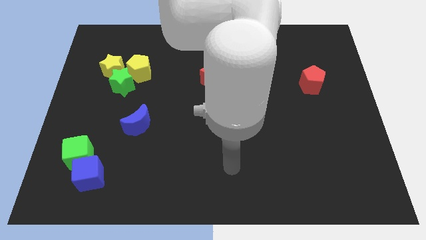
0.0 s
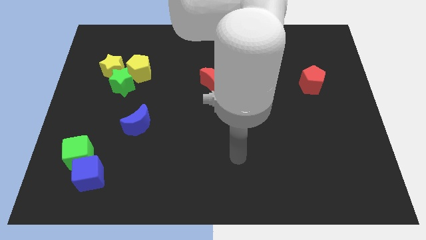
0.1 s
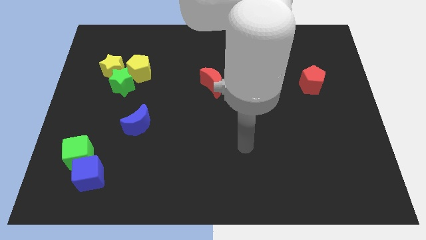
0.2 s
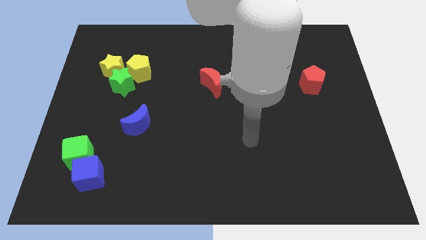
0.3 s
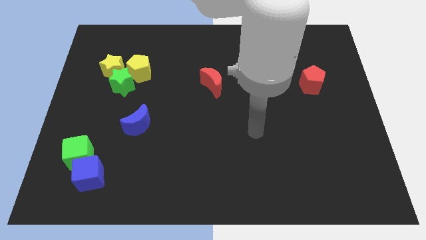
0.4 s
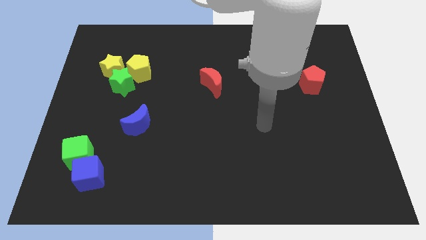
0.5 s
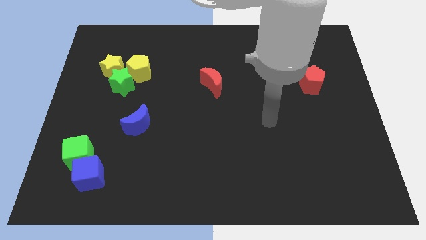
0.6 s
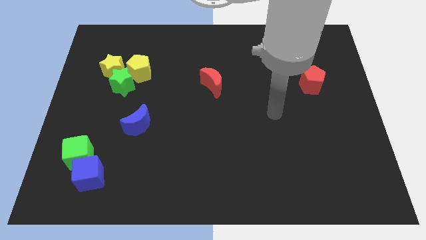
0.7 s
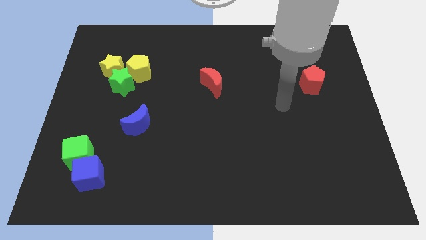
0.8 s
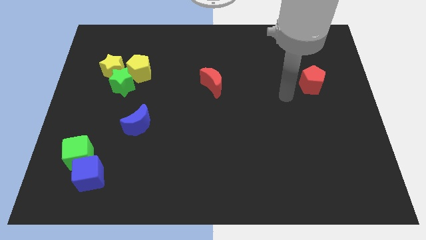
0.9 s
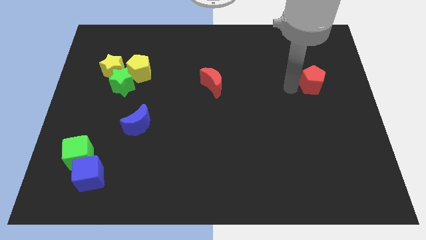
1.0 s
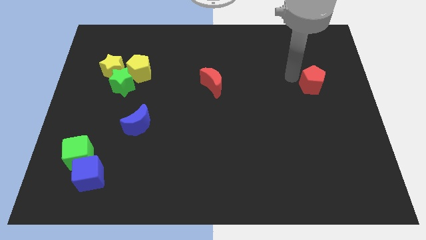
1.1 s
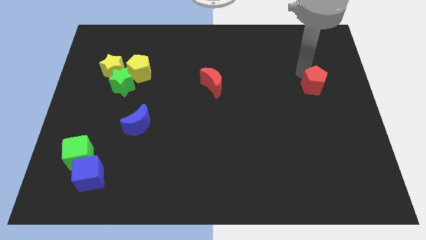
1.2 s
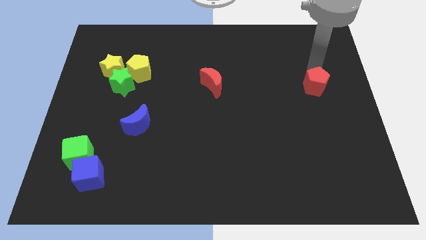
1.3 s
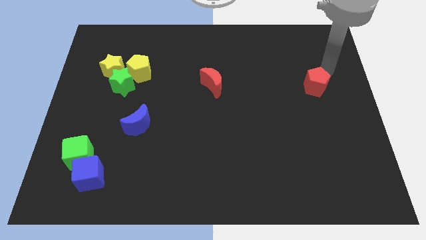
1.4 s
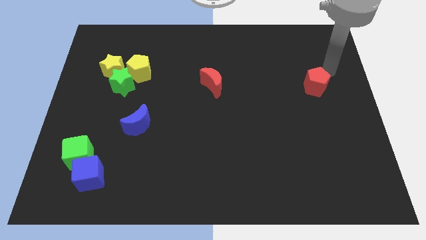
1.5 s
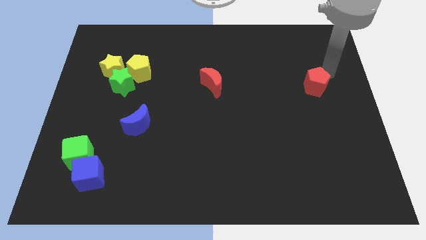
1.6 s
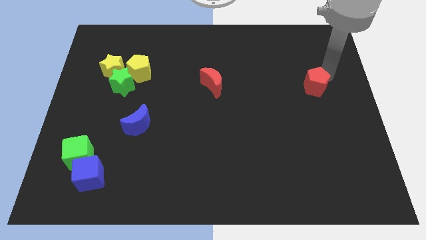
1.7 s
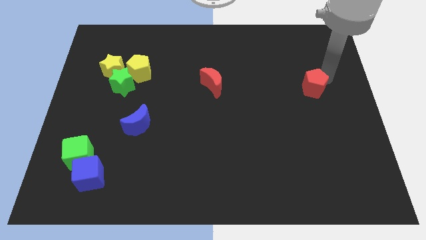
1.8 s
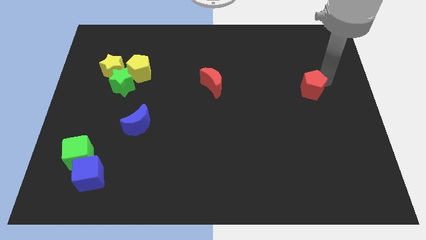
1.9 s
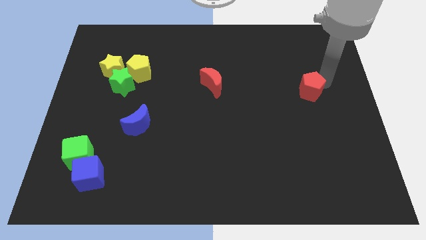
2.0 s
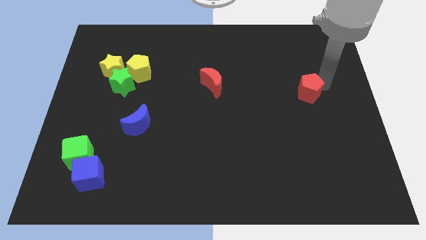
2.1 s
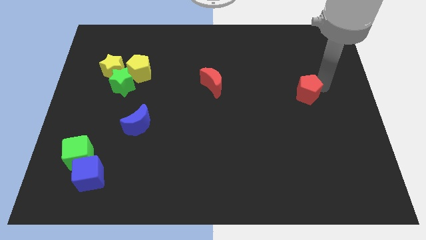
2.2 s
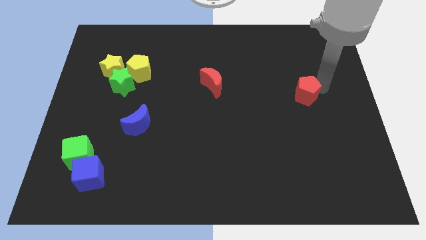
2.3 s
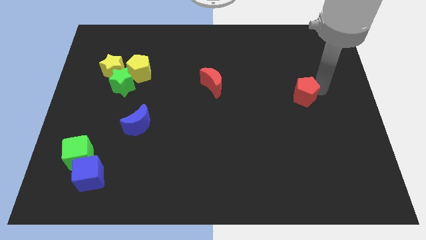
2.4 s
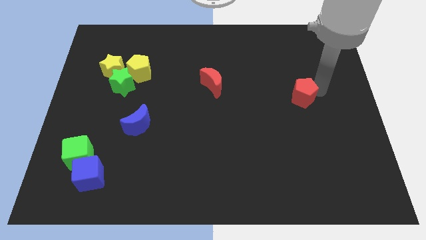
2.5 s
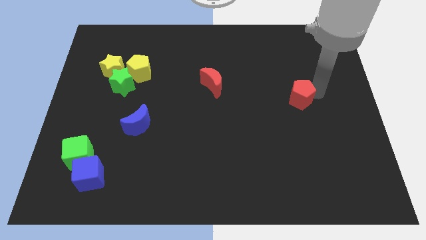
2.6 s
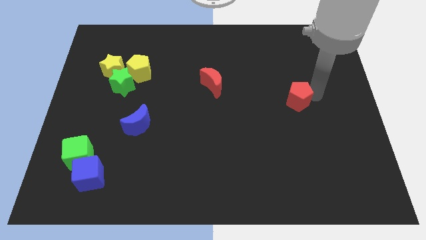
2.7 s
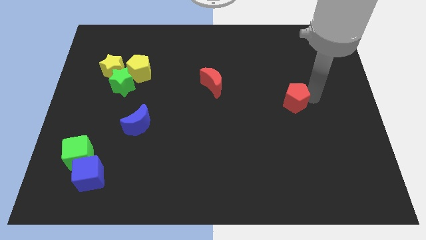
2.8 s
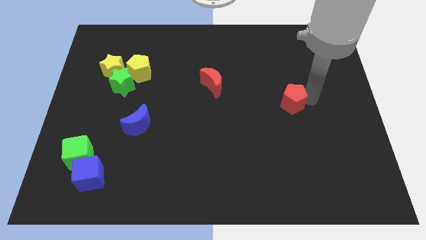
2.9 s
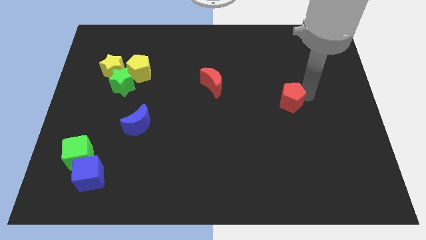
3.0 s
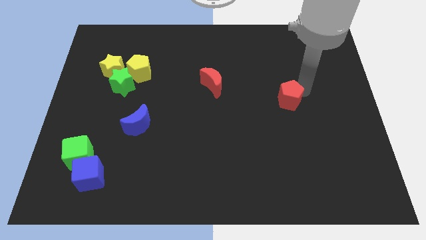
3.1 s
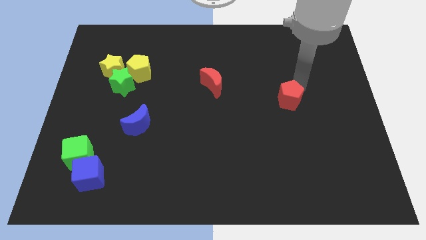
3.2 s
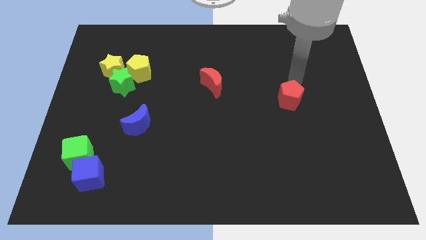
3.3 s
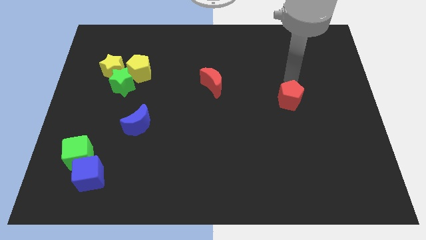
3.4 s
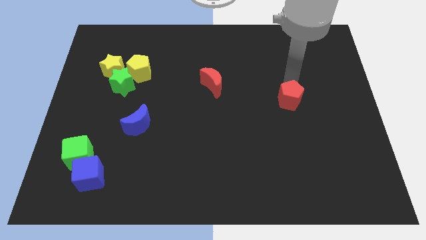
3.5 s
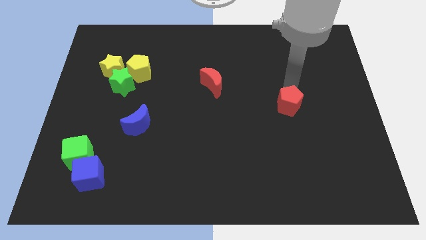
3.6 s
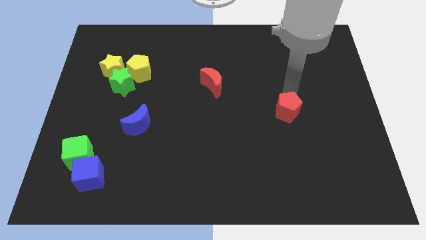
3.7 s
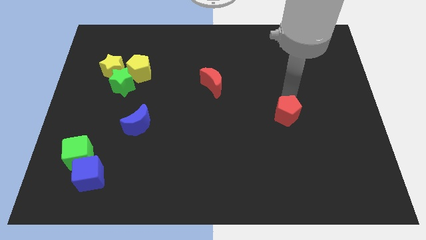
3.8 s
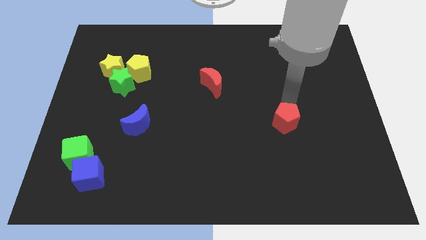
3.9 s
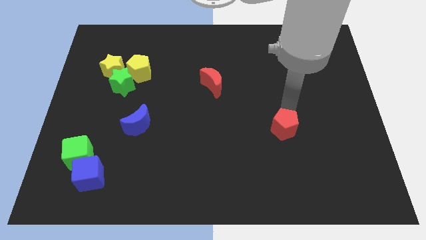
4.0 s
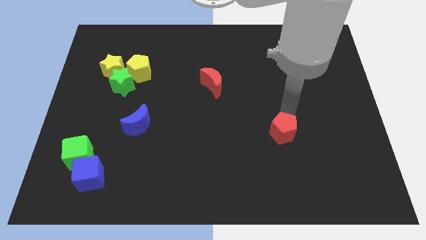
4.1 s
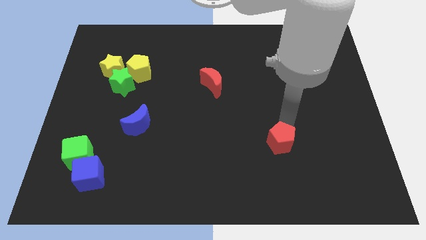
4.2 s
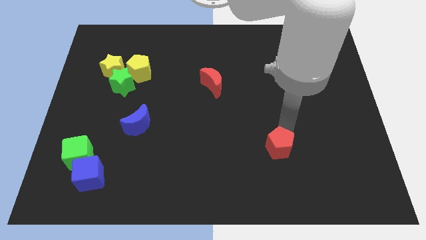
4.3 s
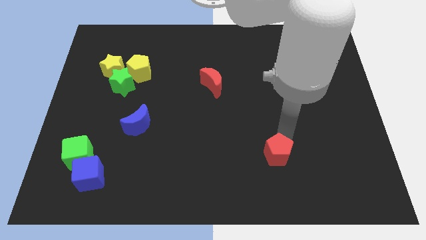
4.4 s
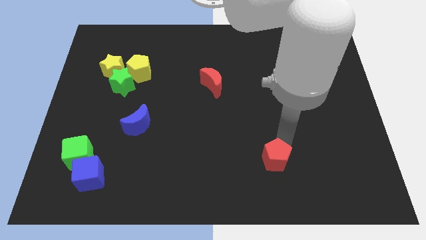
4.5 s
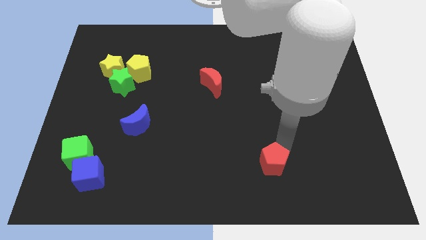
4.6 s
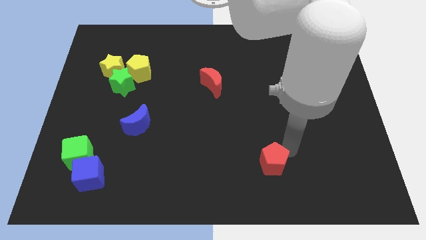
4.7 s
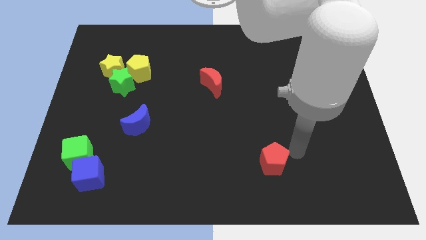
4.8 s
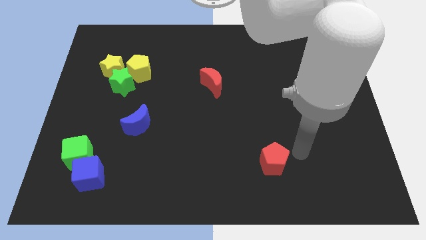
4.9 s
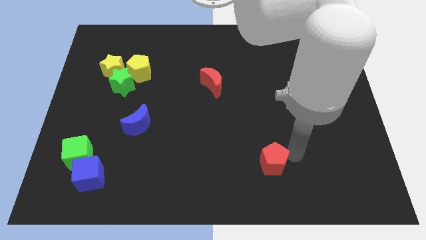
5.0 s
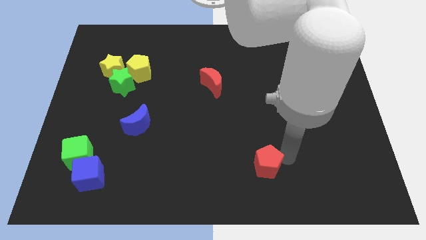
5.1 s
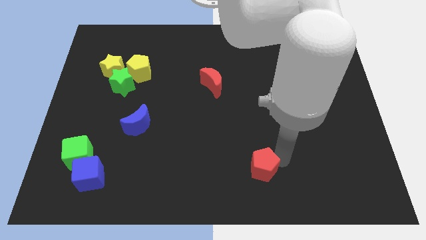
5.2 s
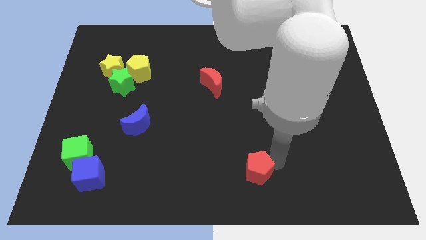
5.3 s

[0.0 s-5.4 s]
move the red pentagon to the bottom side

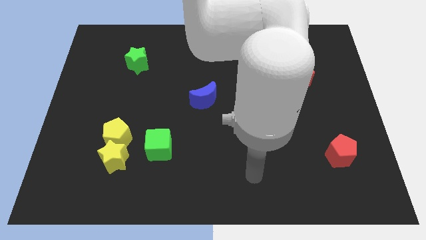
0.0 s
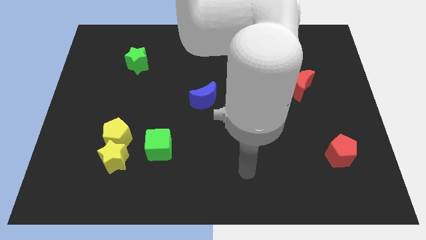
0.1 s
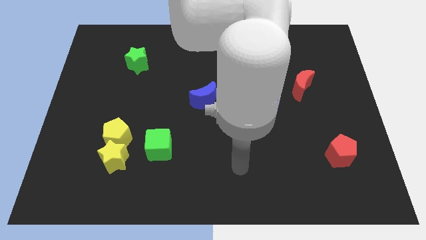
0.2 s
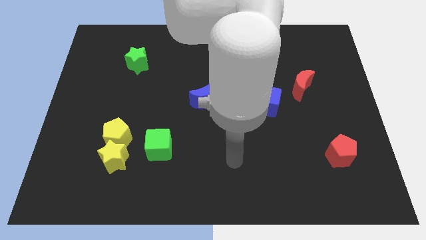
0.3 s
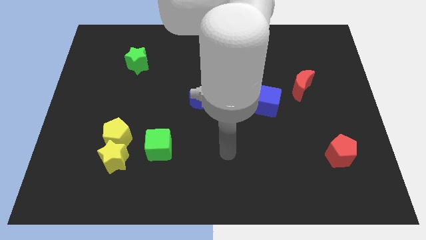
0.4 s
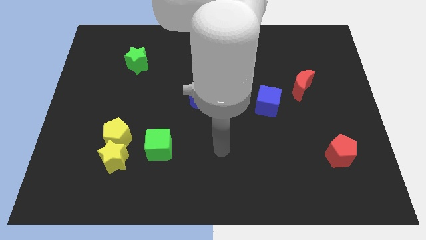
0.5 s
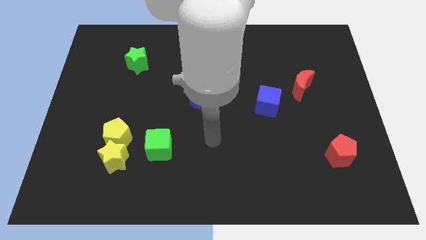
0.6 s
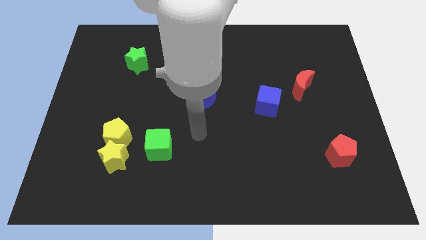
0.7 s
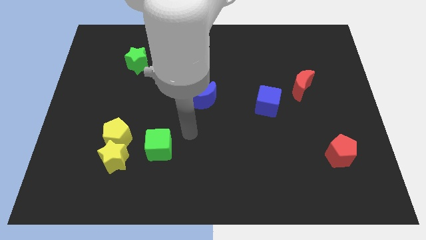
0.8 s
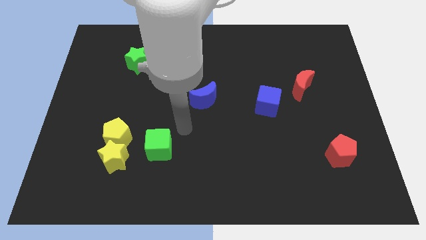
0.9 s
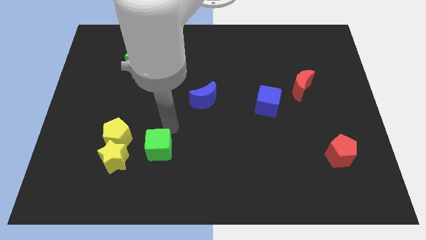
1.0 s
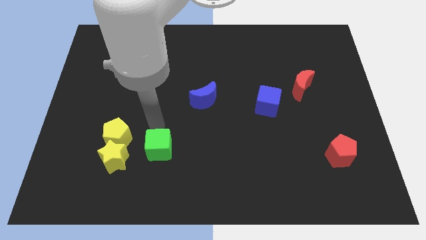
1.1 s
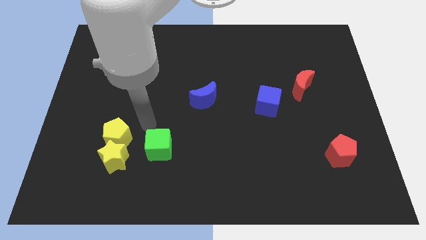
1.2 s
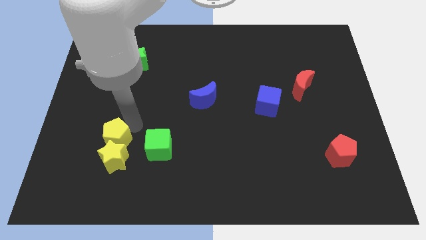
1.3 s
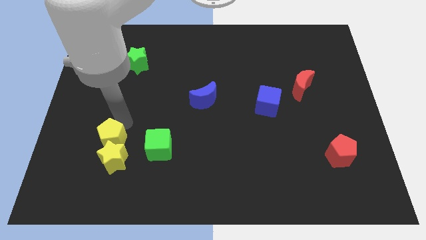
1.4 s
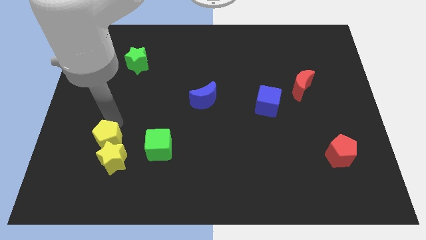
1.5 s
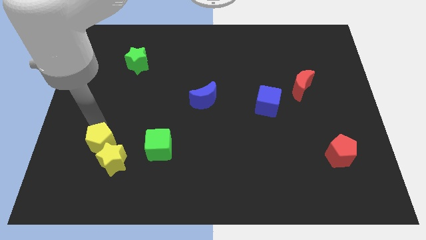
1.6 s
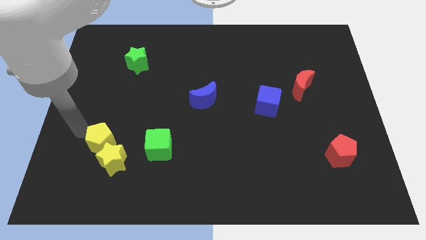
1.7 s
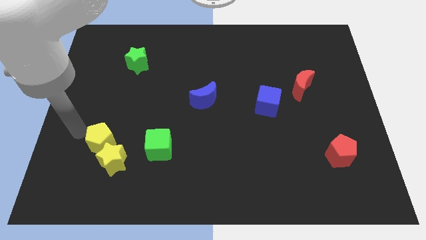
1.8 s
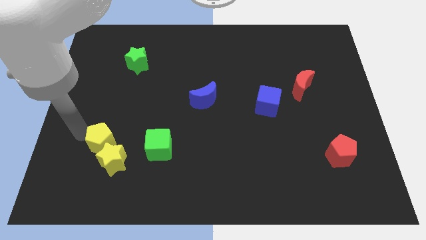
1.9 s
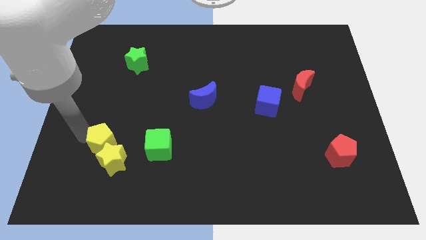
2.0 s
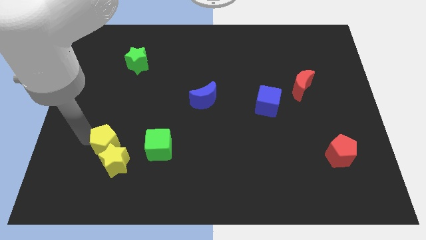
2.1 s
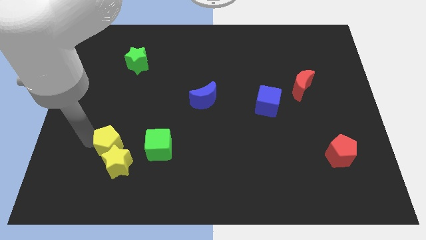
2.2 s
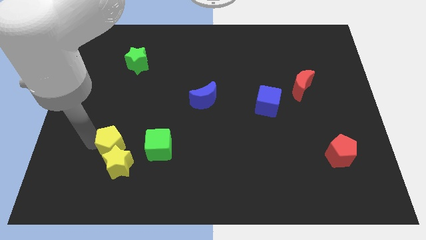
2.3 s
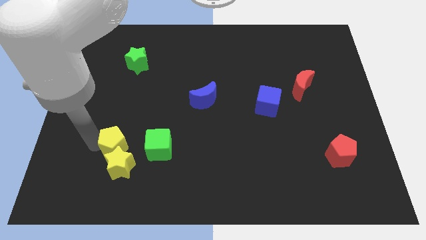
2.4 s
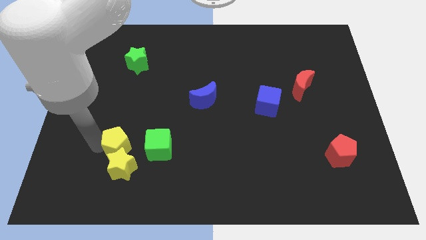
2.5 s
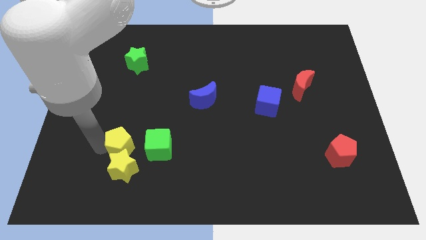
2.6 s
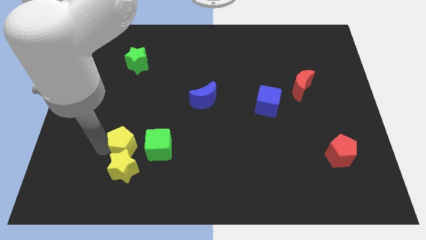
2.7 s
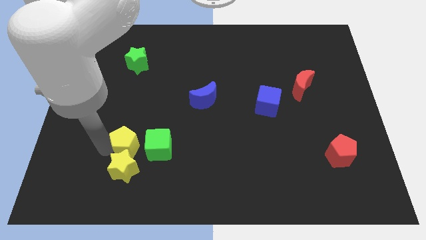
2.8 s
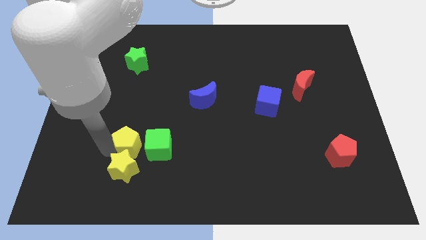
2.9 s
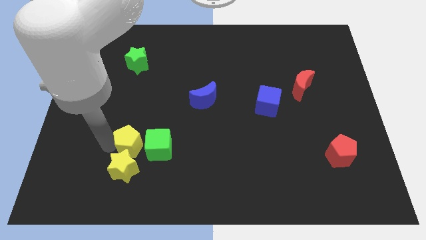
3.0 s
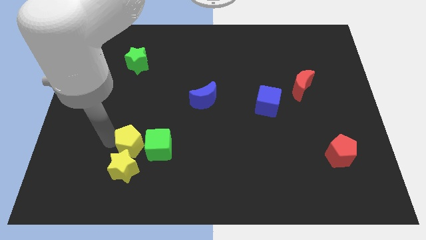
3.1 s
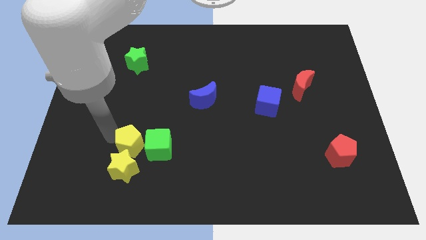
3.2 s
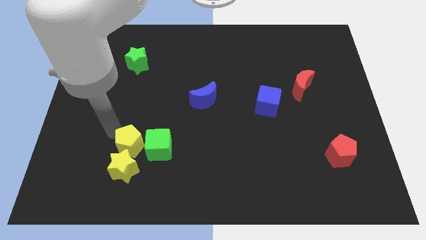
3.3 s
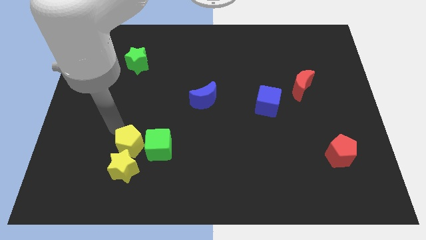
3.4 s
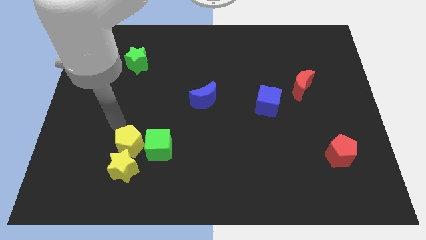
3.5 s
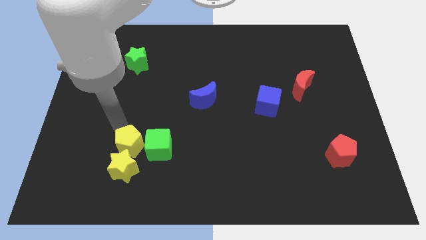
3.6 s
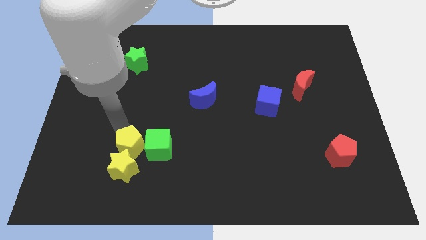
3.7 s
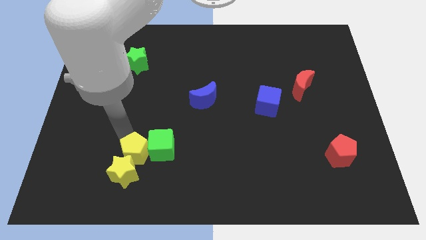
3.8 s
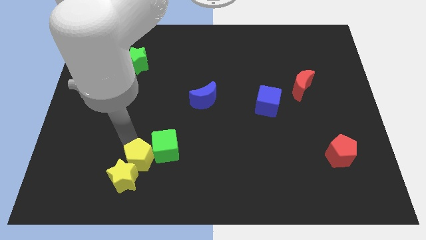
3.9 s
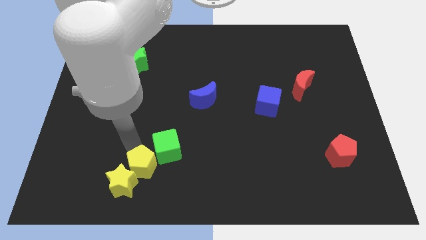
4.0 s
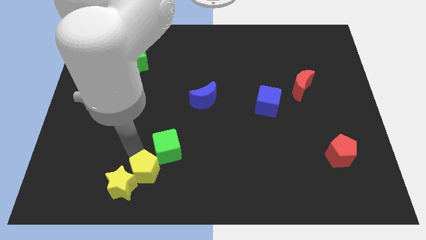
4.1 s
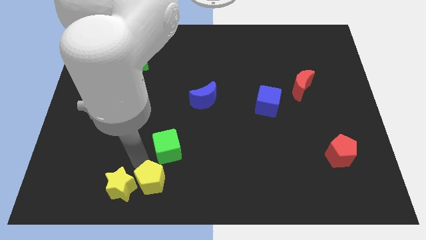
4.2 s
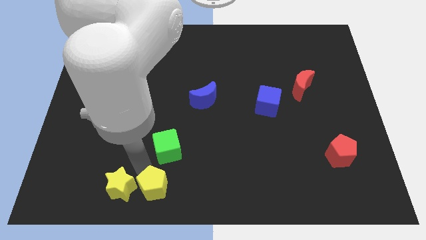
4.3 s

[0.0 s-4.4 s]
slide the yellow pentagon to the bottom side
